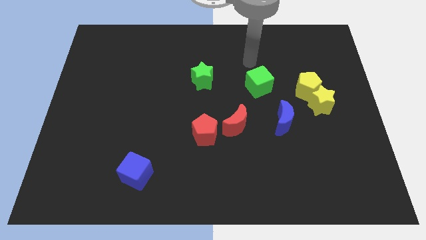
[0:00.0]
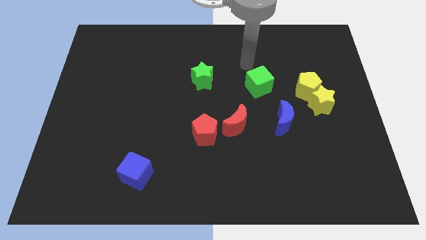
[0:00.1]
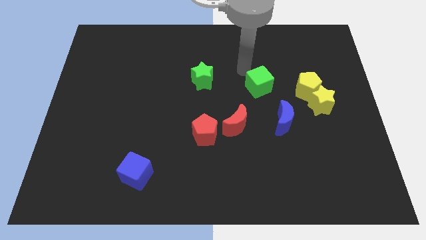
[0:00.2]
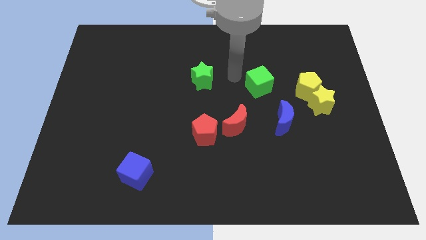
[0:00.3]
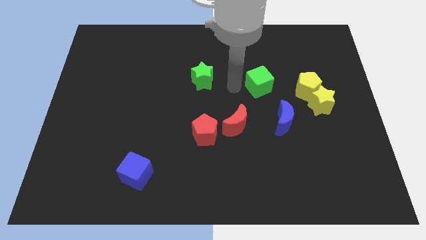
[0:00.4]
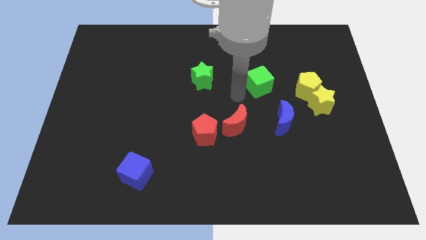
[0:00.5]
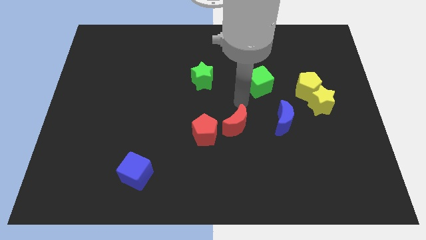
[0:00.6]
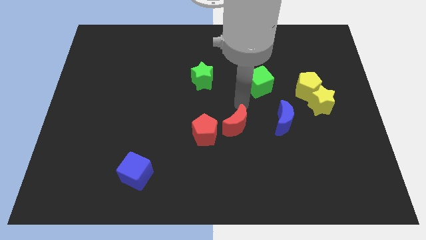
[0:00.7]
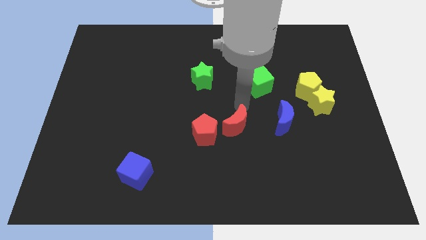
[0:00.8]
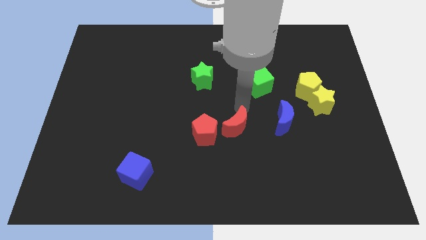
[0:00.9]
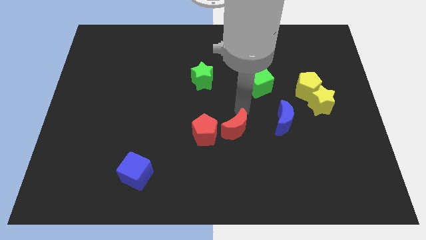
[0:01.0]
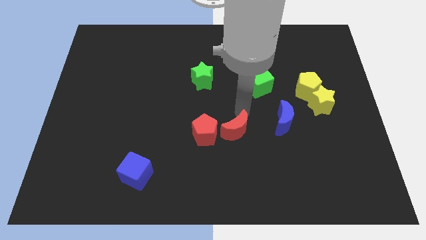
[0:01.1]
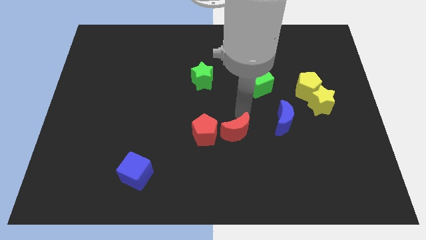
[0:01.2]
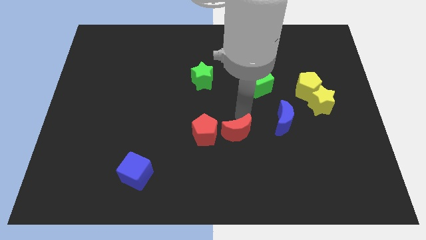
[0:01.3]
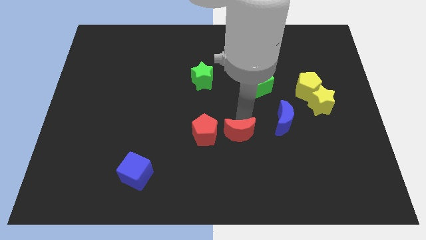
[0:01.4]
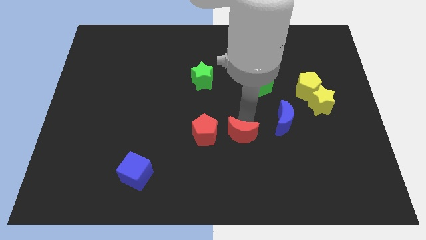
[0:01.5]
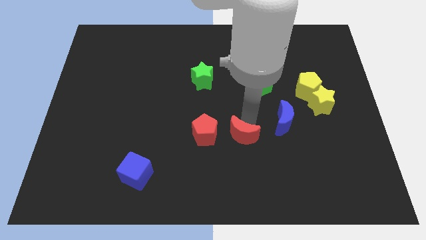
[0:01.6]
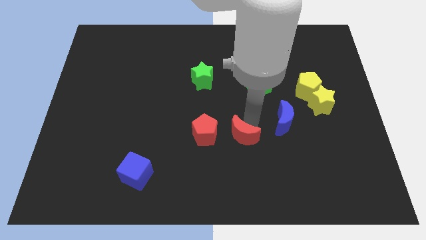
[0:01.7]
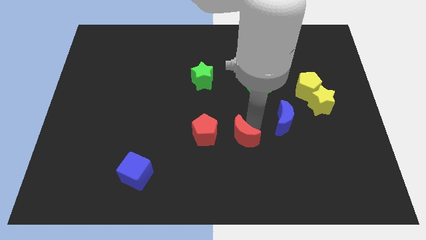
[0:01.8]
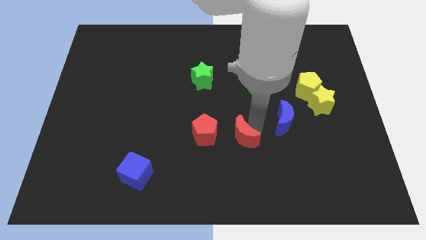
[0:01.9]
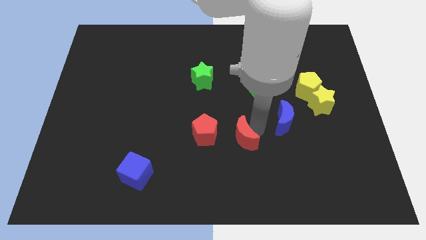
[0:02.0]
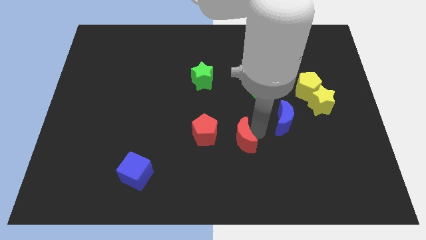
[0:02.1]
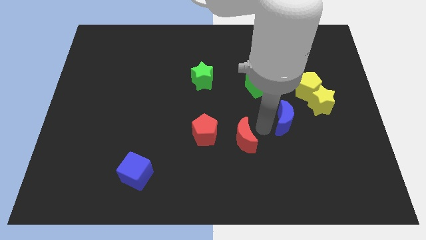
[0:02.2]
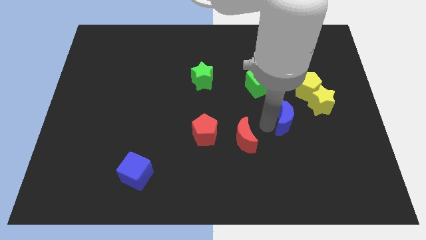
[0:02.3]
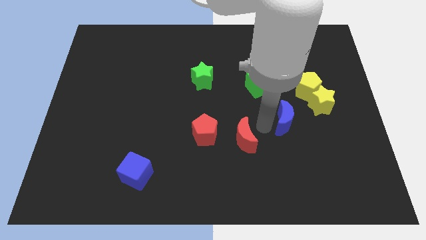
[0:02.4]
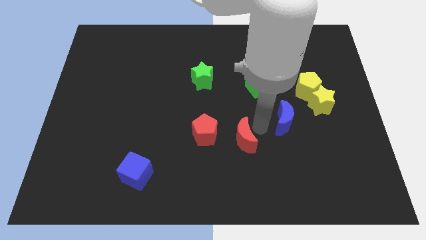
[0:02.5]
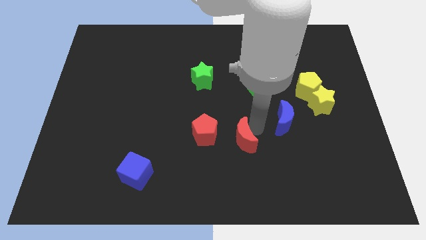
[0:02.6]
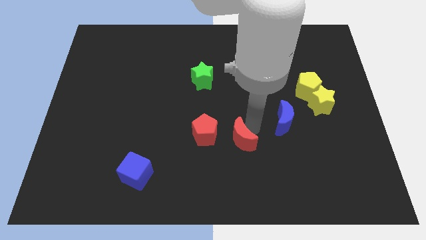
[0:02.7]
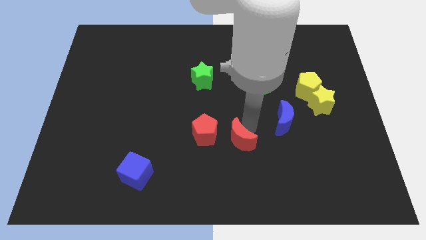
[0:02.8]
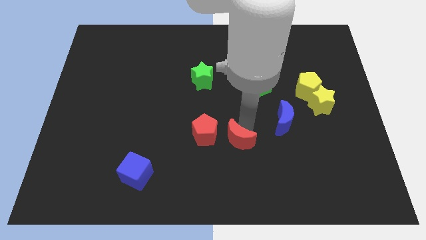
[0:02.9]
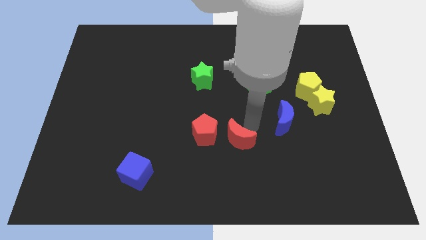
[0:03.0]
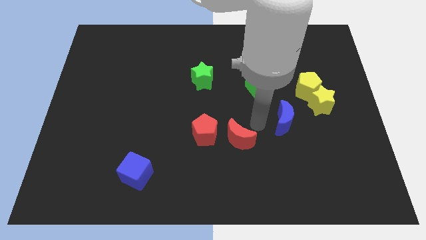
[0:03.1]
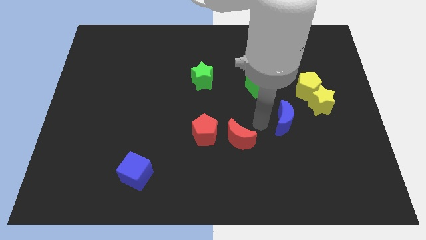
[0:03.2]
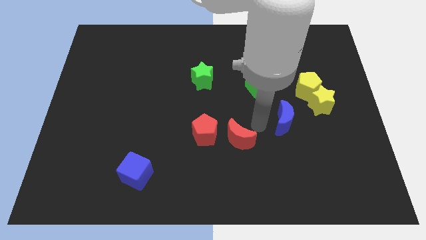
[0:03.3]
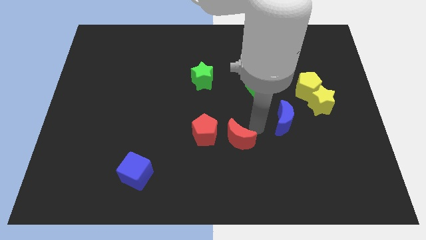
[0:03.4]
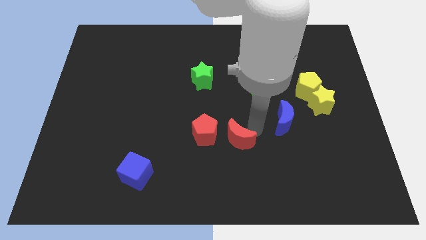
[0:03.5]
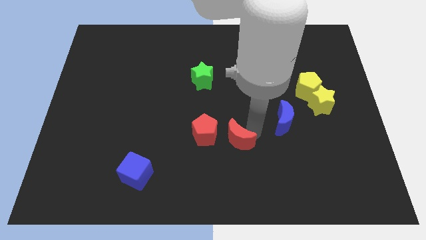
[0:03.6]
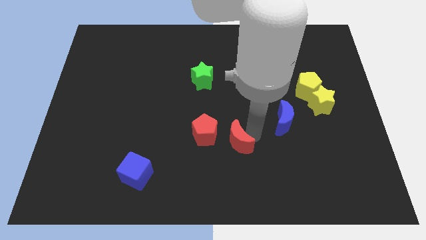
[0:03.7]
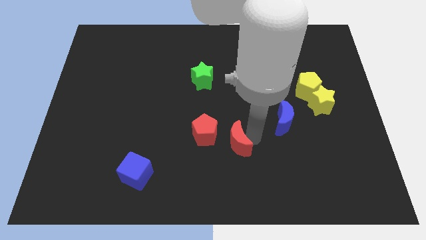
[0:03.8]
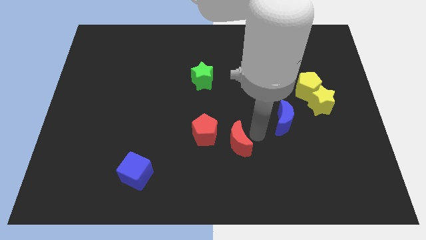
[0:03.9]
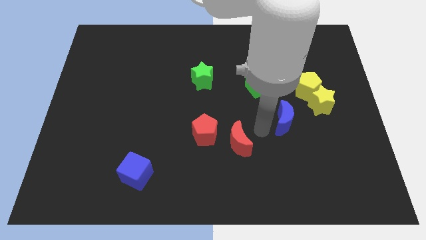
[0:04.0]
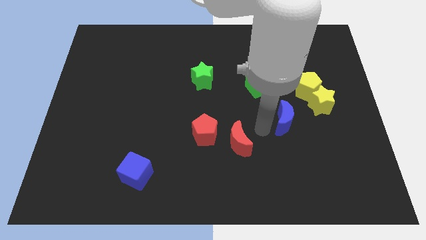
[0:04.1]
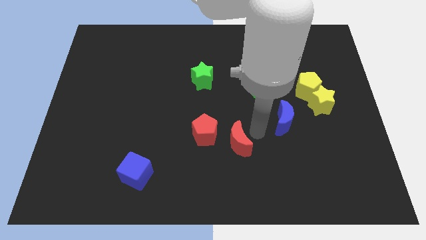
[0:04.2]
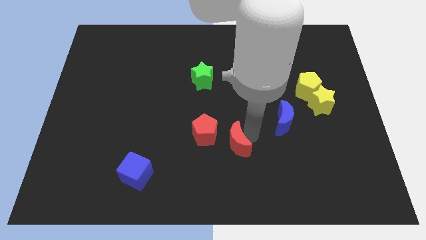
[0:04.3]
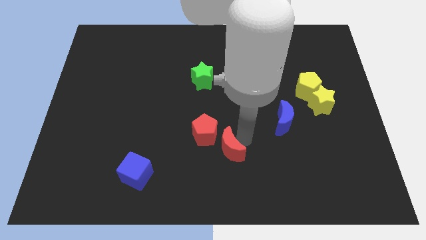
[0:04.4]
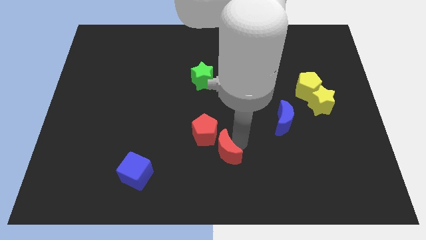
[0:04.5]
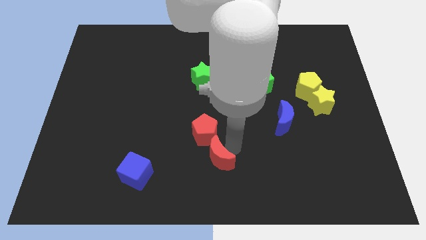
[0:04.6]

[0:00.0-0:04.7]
push the red moon down and then left a little bit

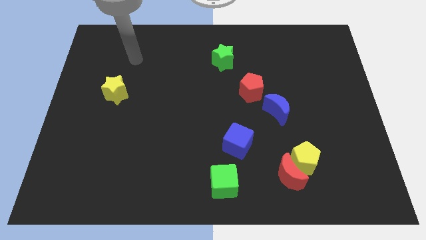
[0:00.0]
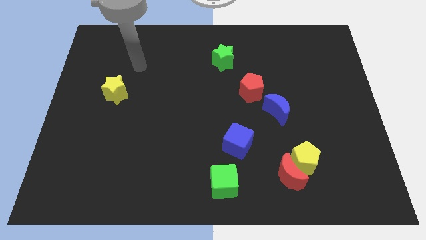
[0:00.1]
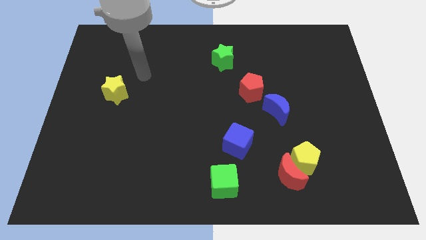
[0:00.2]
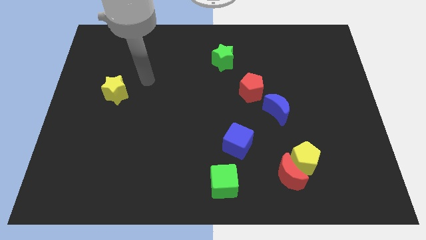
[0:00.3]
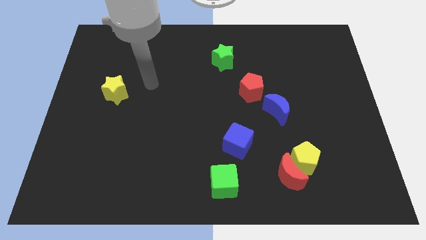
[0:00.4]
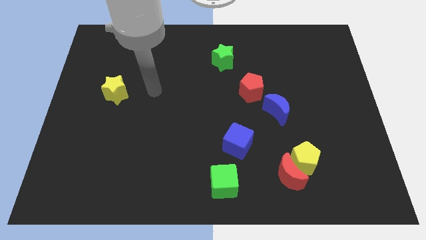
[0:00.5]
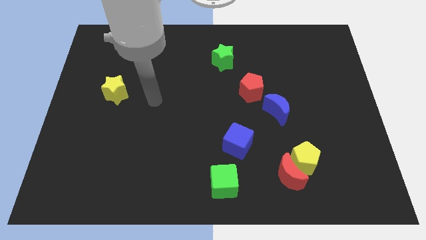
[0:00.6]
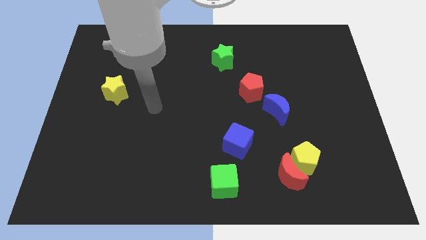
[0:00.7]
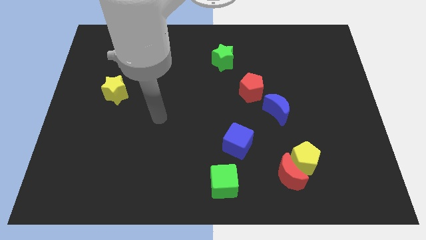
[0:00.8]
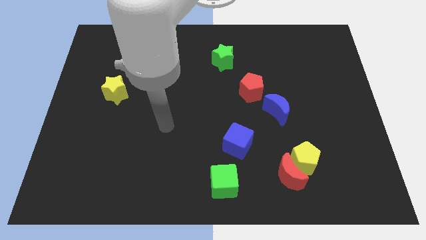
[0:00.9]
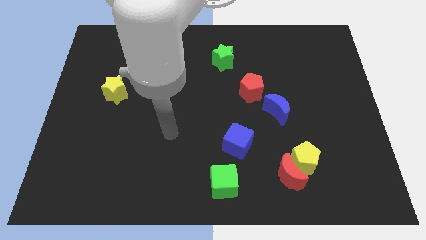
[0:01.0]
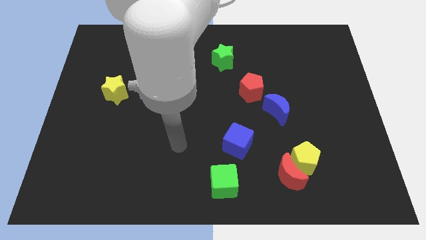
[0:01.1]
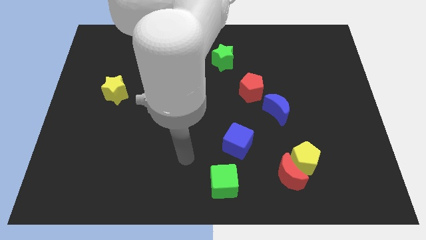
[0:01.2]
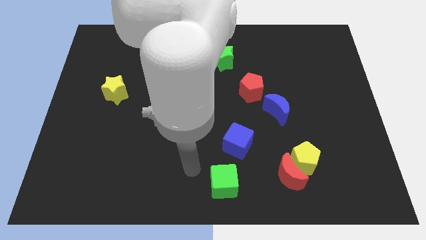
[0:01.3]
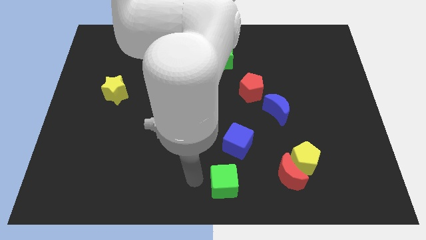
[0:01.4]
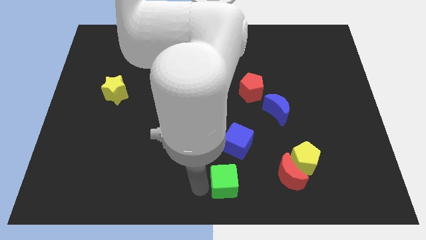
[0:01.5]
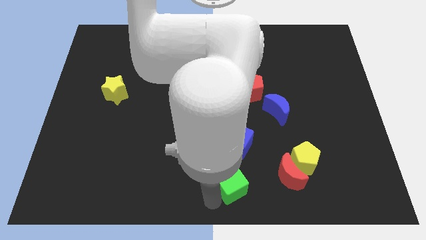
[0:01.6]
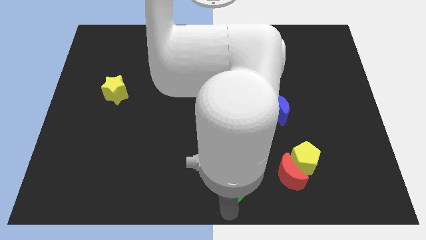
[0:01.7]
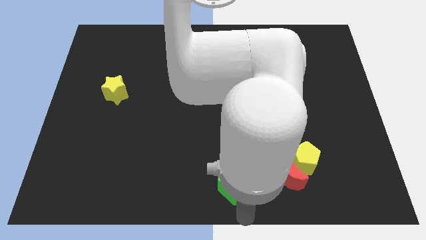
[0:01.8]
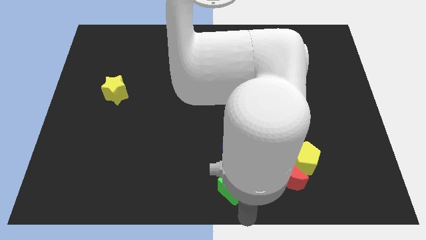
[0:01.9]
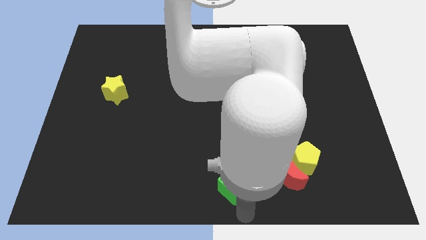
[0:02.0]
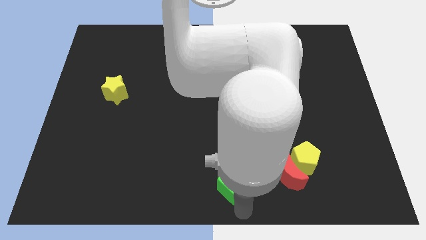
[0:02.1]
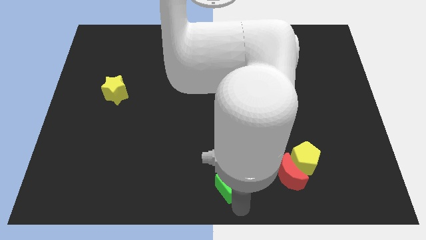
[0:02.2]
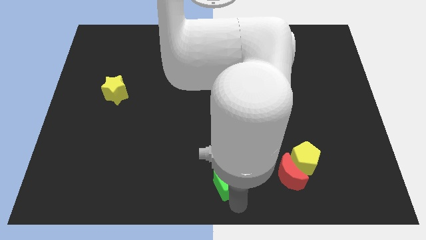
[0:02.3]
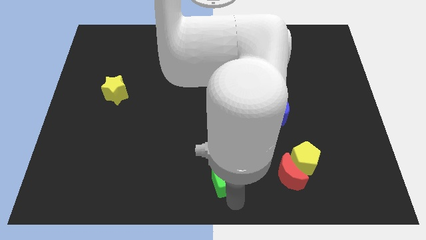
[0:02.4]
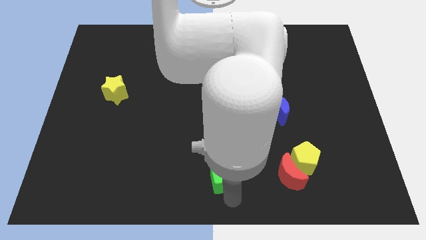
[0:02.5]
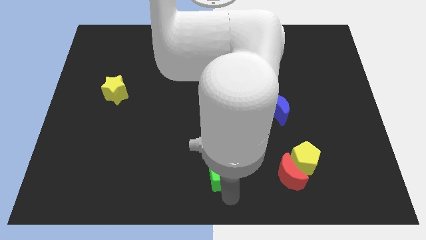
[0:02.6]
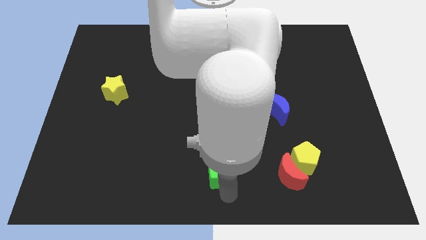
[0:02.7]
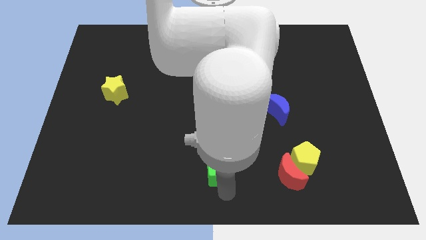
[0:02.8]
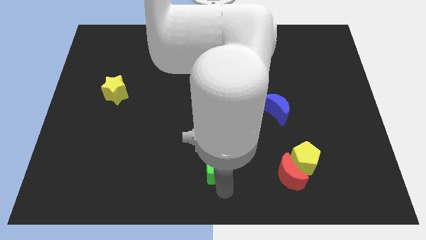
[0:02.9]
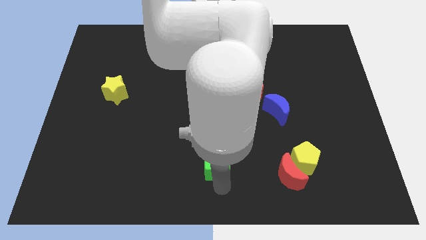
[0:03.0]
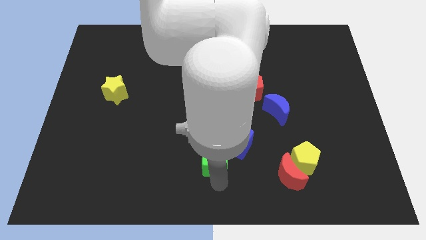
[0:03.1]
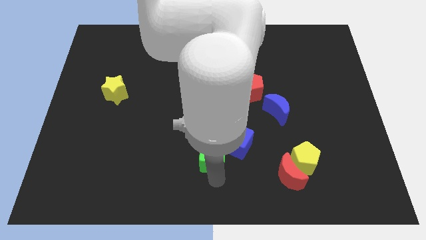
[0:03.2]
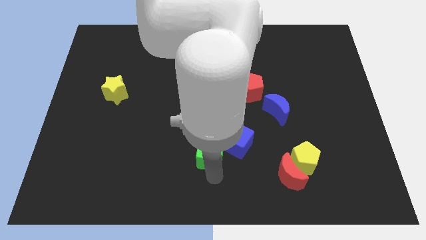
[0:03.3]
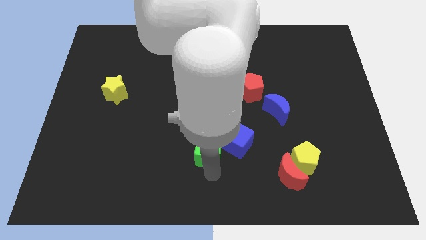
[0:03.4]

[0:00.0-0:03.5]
slightly push the green cube up

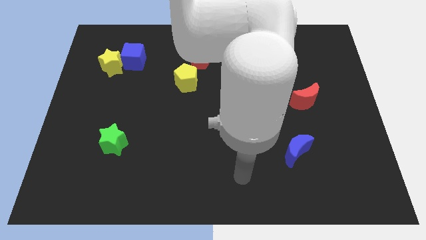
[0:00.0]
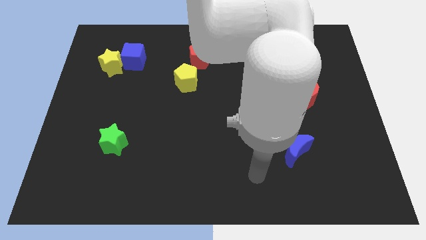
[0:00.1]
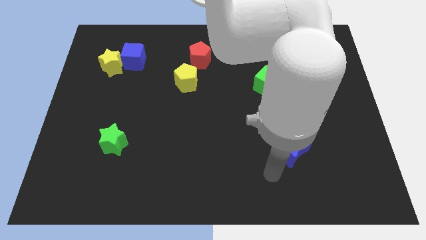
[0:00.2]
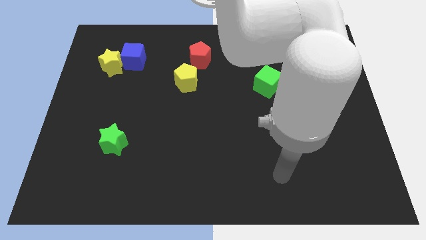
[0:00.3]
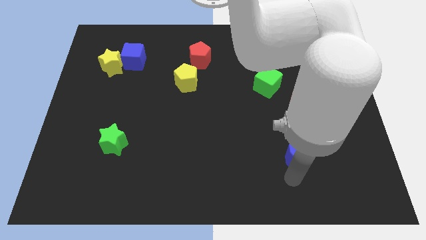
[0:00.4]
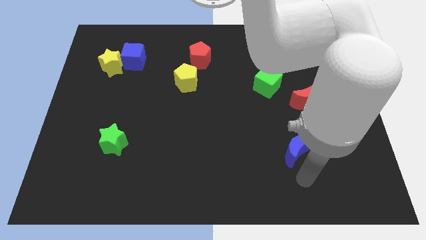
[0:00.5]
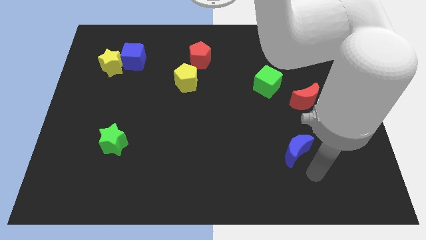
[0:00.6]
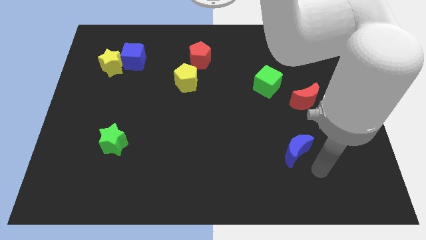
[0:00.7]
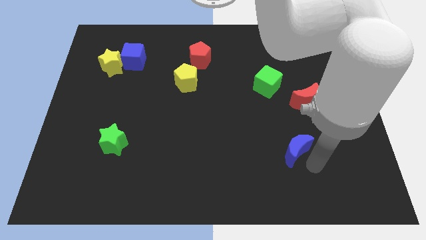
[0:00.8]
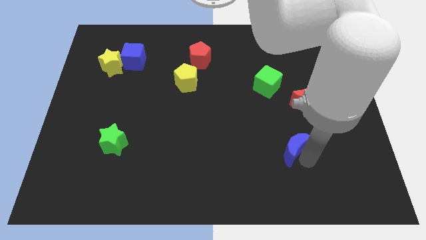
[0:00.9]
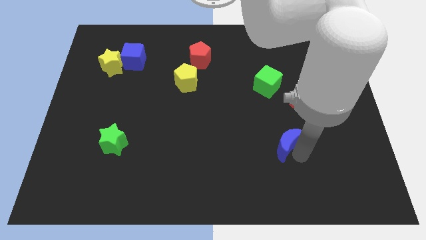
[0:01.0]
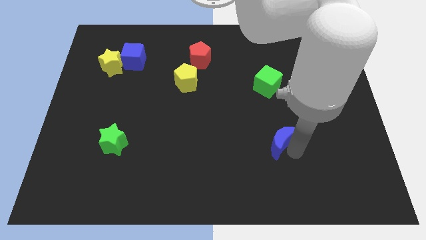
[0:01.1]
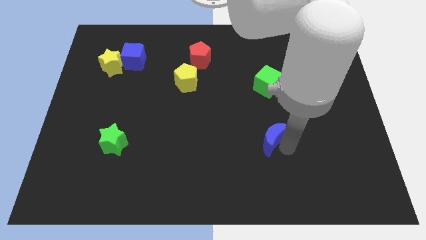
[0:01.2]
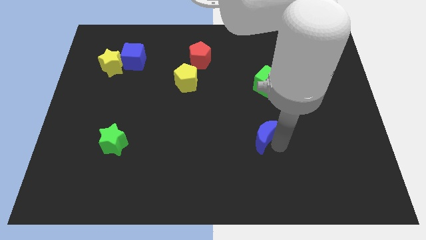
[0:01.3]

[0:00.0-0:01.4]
move the blue moon upwards and then to the left a bit
